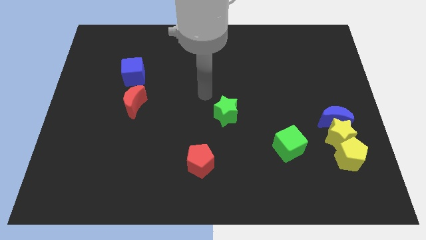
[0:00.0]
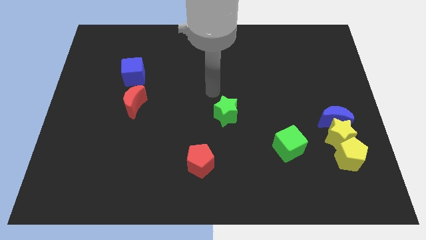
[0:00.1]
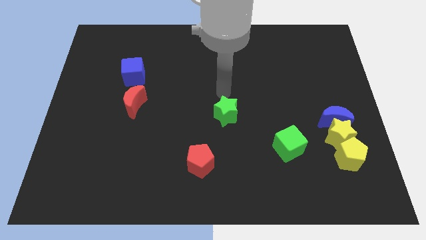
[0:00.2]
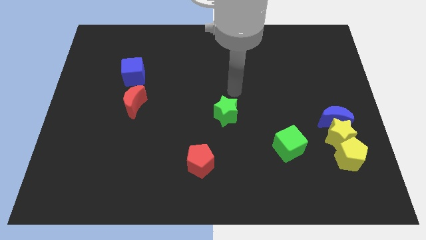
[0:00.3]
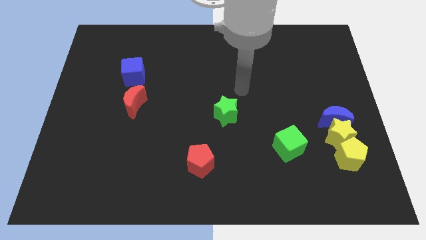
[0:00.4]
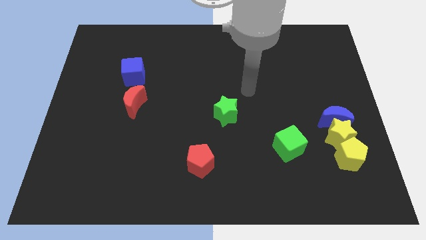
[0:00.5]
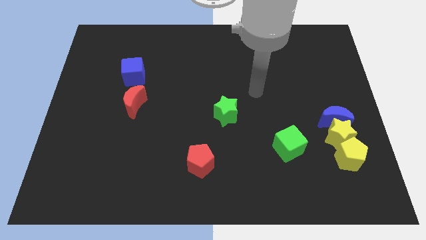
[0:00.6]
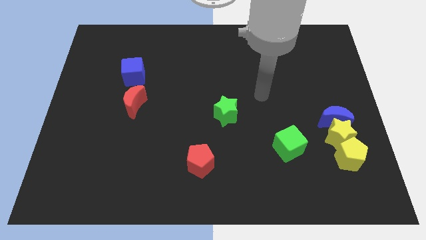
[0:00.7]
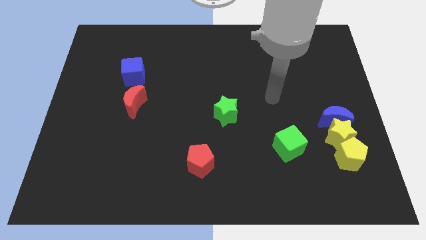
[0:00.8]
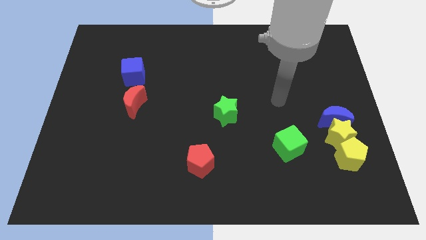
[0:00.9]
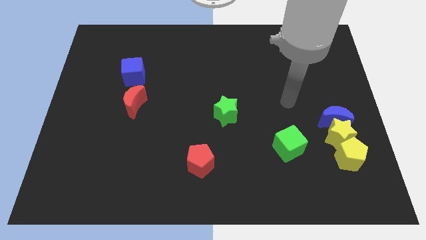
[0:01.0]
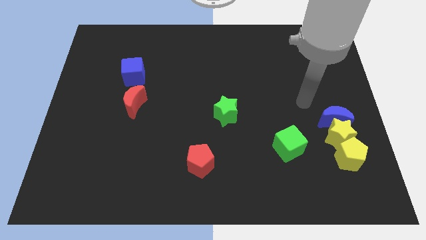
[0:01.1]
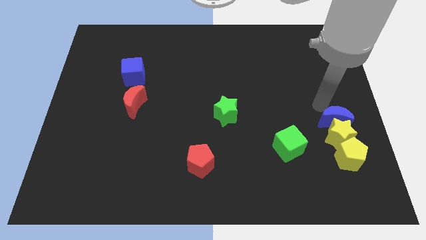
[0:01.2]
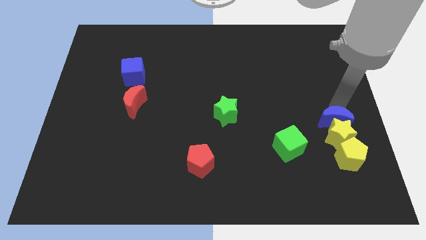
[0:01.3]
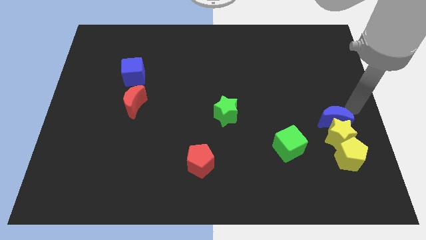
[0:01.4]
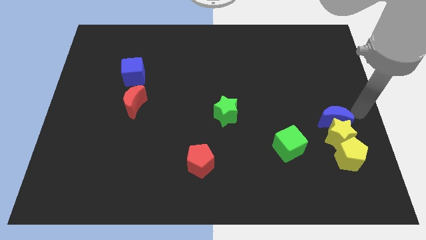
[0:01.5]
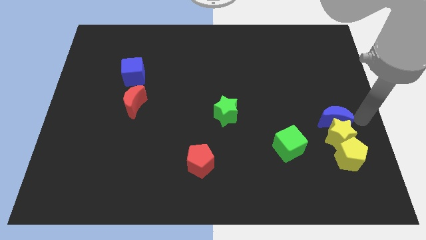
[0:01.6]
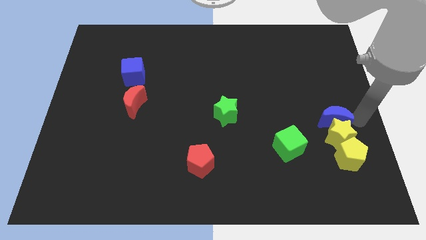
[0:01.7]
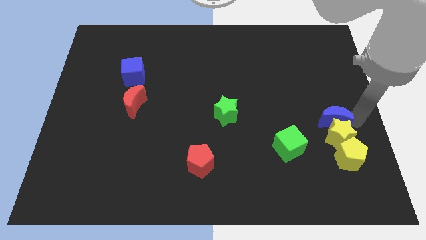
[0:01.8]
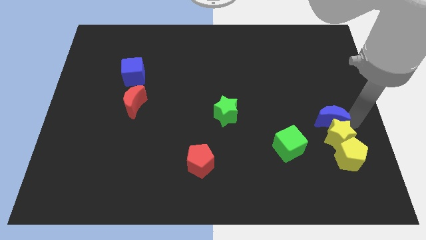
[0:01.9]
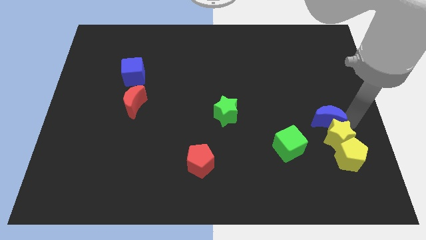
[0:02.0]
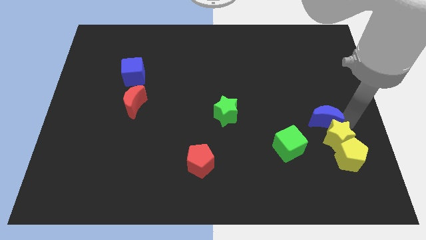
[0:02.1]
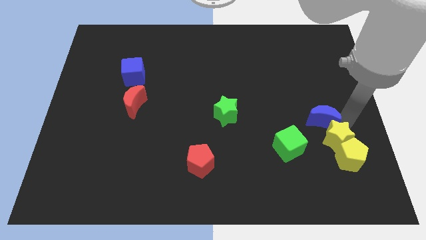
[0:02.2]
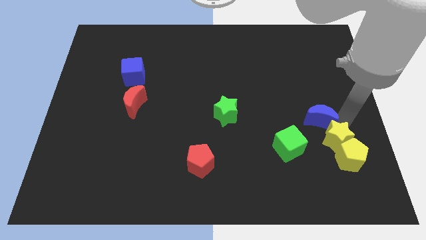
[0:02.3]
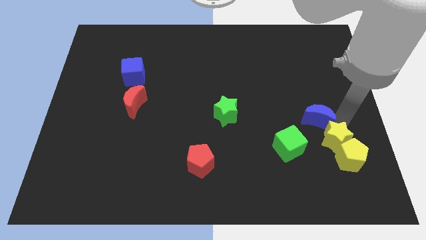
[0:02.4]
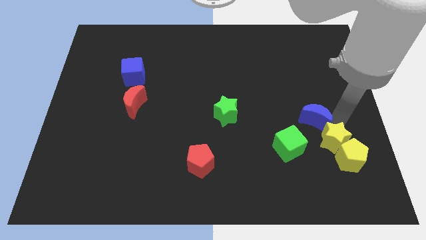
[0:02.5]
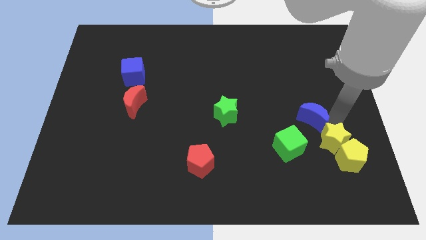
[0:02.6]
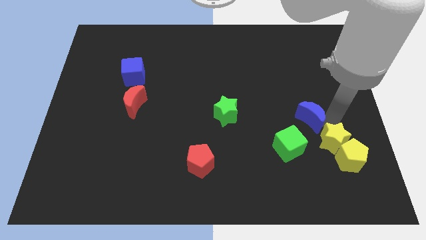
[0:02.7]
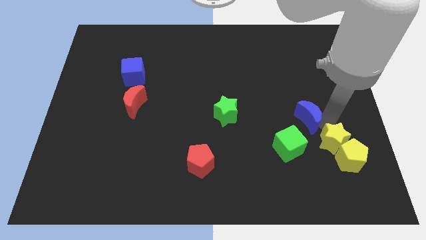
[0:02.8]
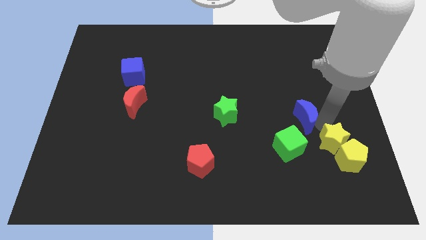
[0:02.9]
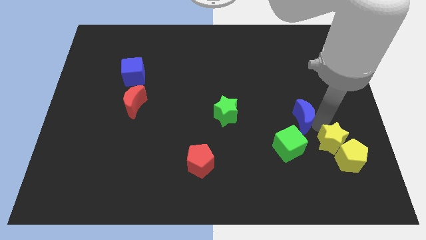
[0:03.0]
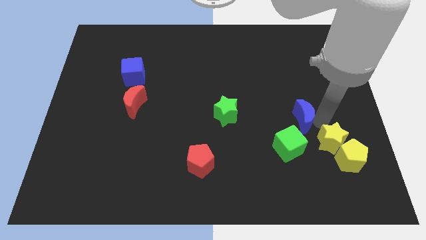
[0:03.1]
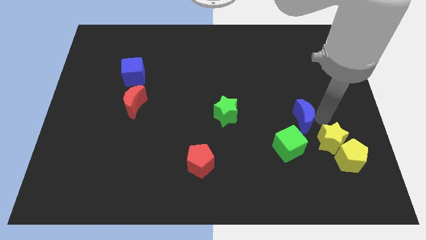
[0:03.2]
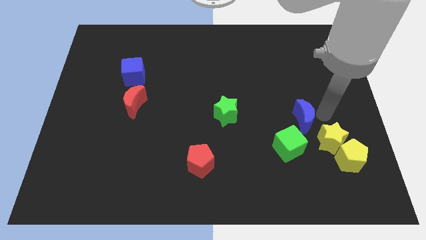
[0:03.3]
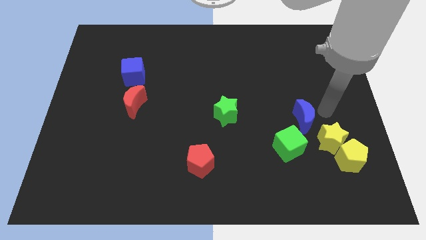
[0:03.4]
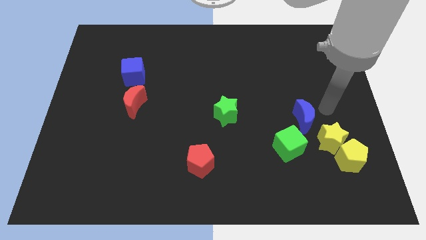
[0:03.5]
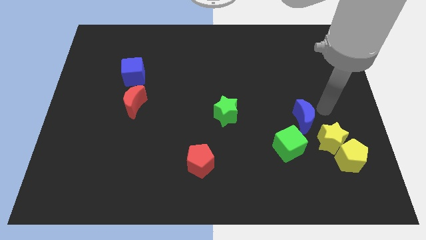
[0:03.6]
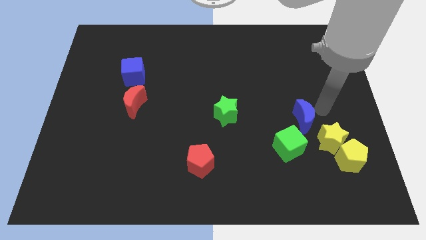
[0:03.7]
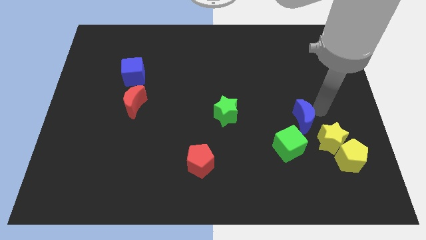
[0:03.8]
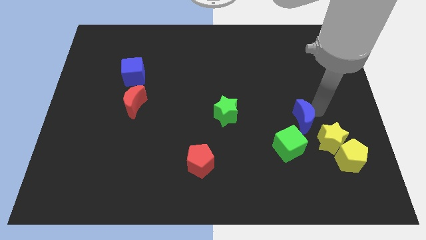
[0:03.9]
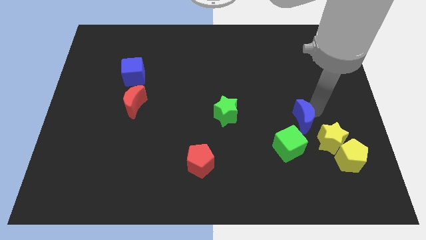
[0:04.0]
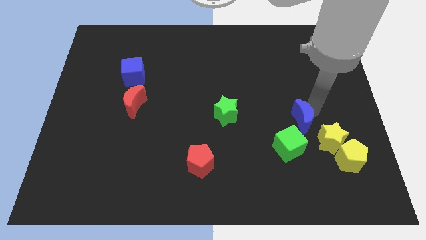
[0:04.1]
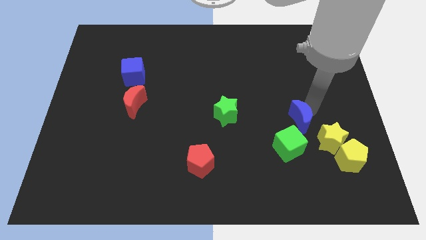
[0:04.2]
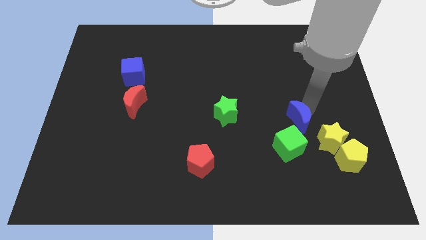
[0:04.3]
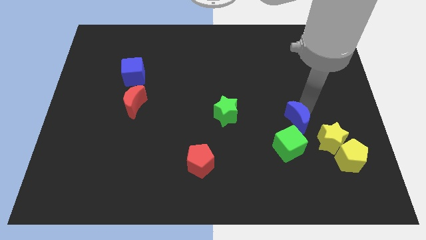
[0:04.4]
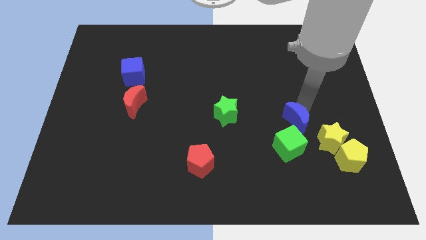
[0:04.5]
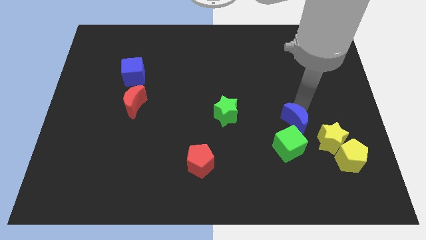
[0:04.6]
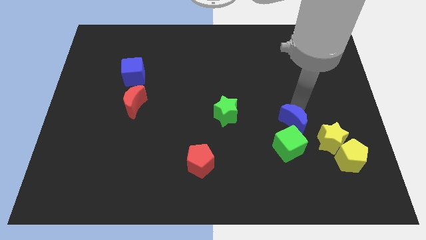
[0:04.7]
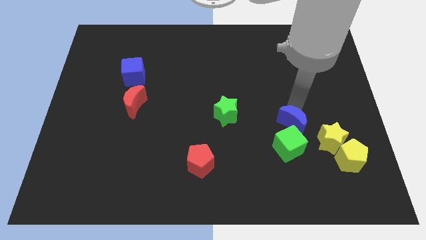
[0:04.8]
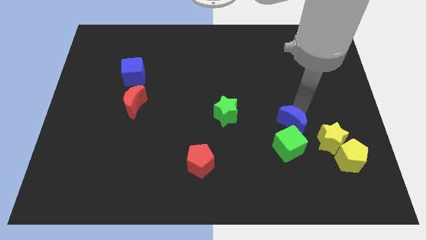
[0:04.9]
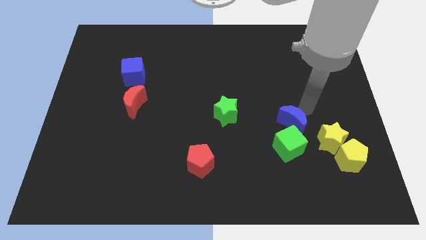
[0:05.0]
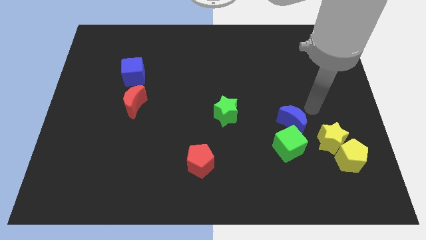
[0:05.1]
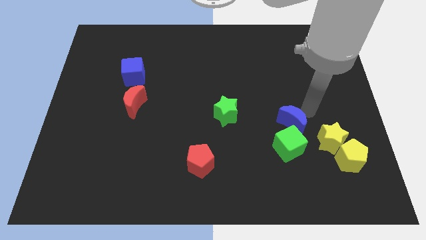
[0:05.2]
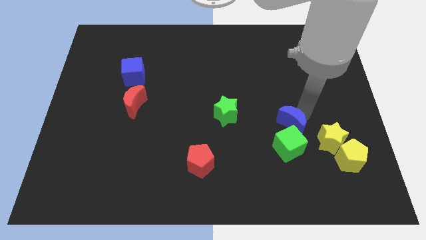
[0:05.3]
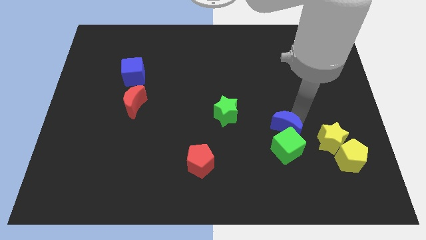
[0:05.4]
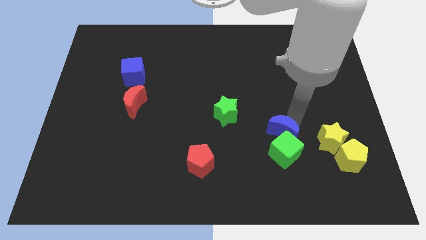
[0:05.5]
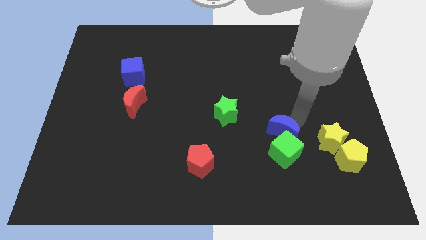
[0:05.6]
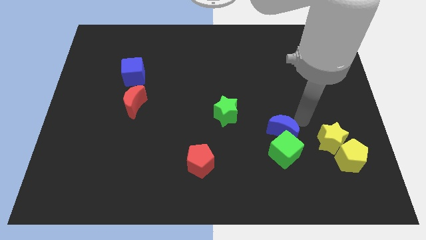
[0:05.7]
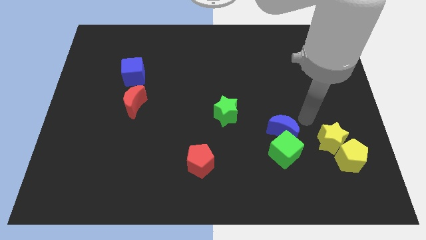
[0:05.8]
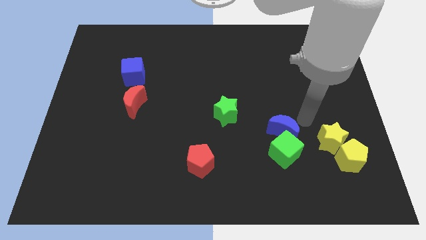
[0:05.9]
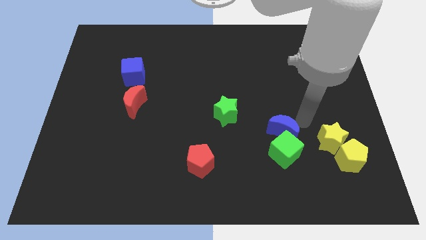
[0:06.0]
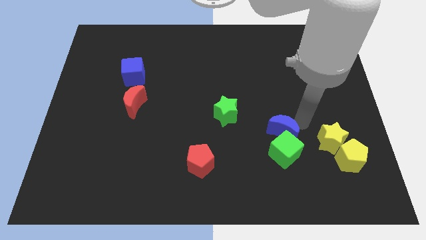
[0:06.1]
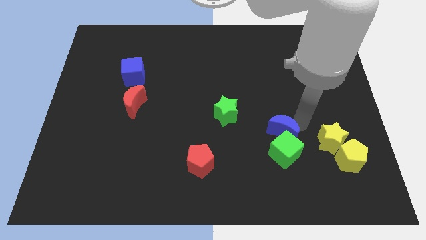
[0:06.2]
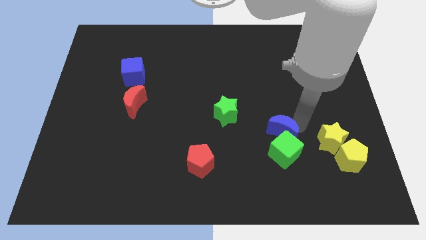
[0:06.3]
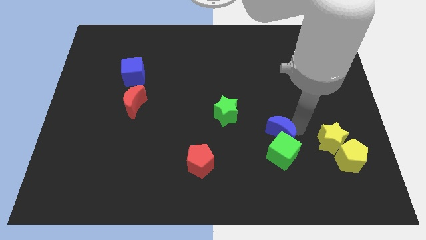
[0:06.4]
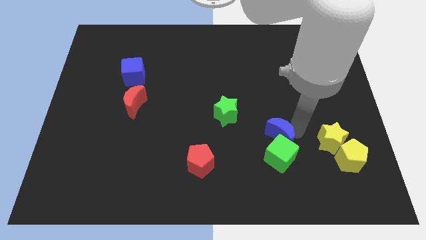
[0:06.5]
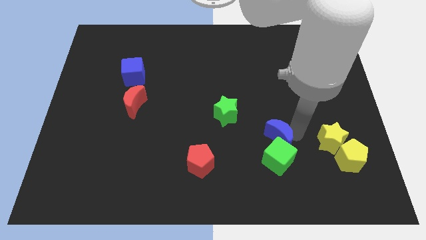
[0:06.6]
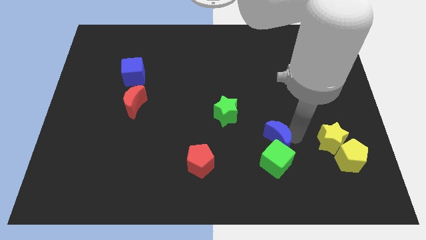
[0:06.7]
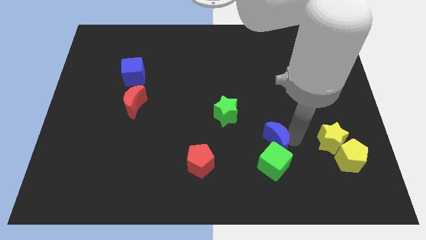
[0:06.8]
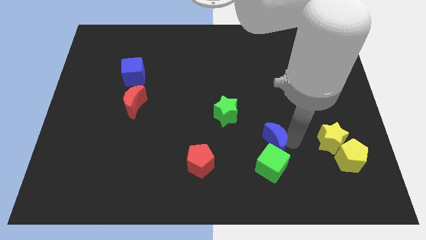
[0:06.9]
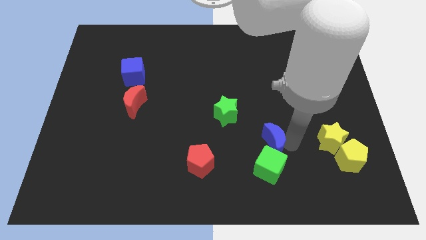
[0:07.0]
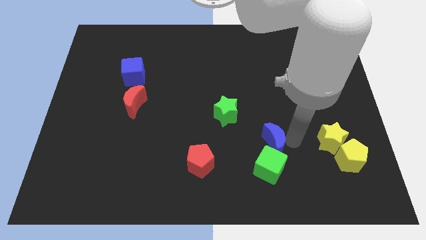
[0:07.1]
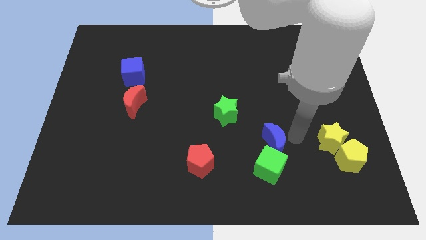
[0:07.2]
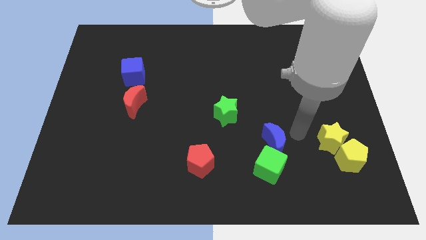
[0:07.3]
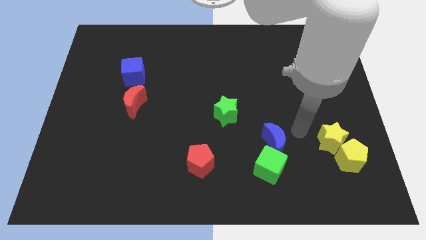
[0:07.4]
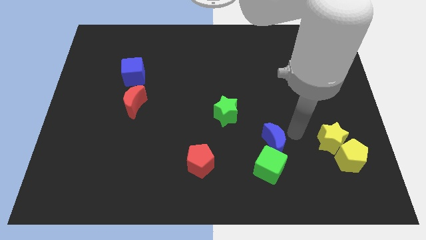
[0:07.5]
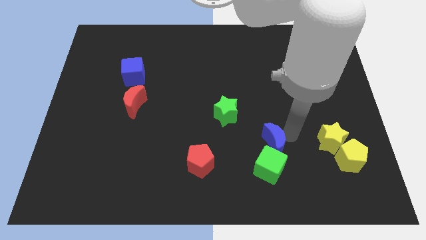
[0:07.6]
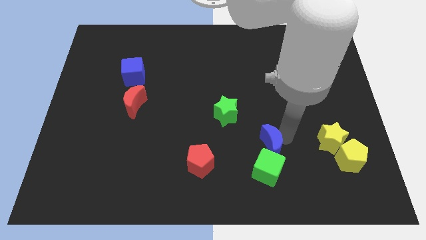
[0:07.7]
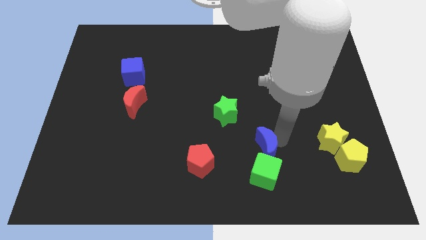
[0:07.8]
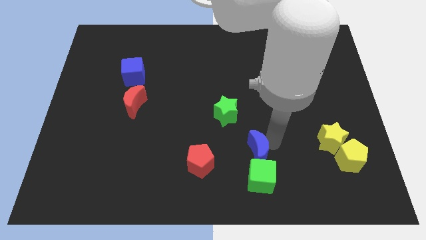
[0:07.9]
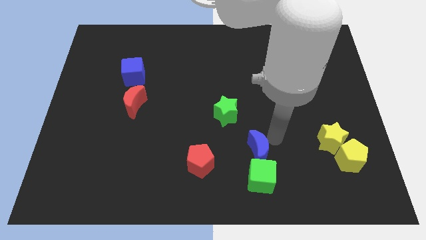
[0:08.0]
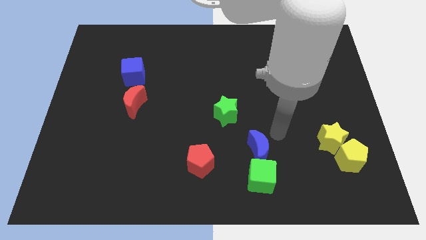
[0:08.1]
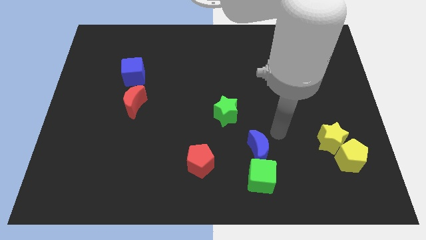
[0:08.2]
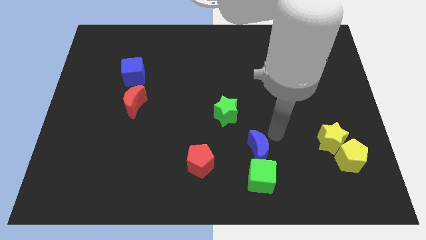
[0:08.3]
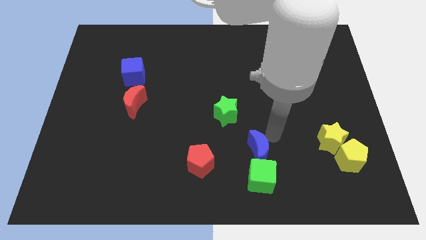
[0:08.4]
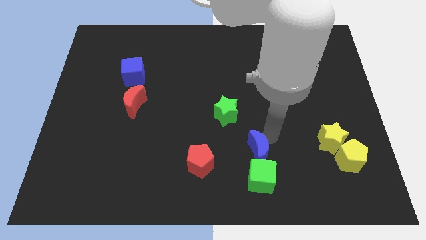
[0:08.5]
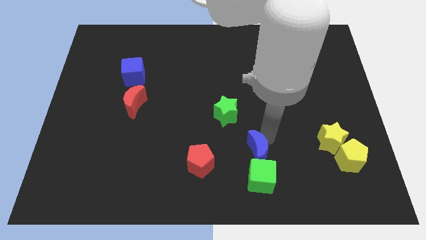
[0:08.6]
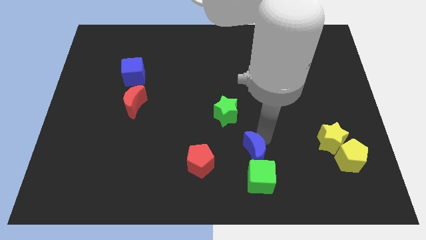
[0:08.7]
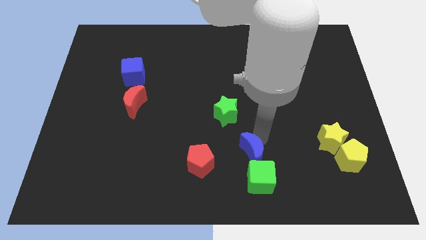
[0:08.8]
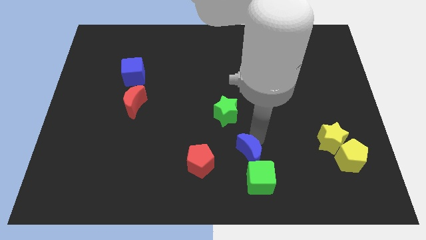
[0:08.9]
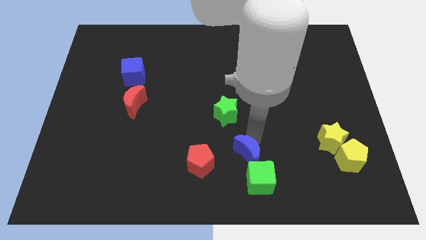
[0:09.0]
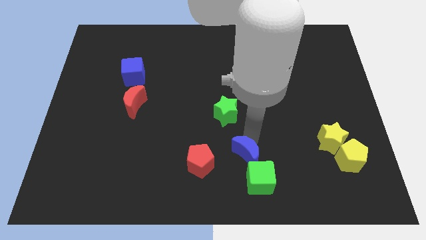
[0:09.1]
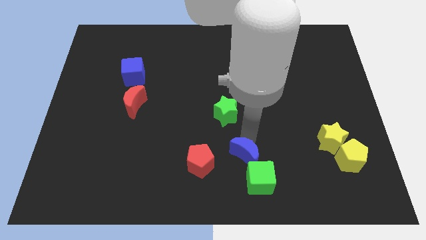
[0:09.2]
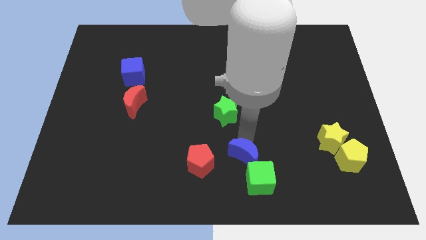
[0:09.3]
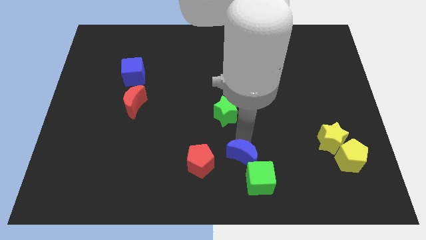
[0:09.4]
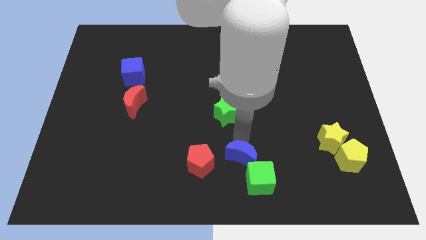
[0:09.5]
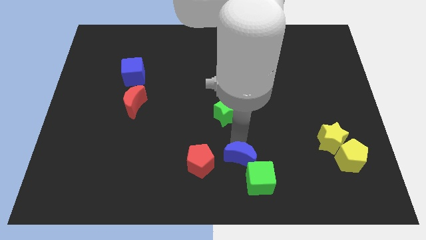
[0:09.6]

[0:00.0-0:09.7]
push the blue moon to the bottom side
